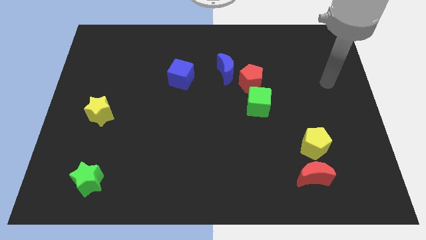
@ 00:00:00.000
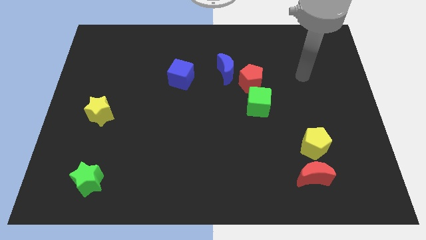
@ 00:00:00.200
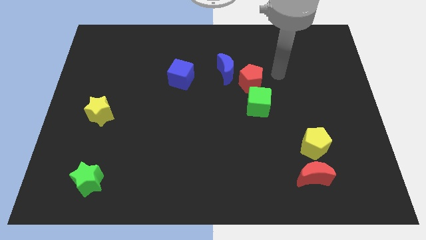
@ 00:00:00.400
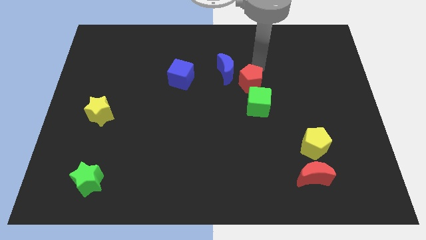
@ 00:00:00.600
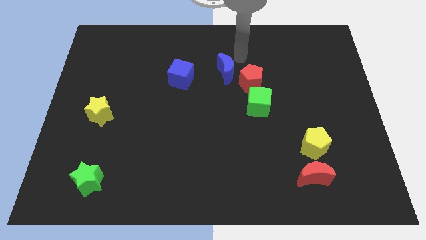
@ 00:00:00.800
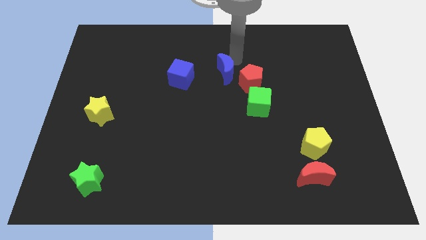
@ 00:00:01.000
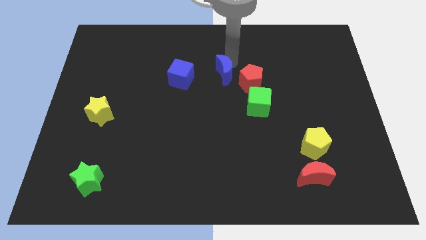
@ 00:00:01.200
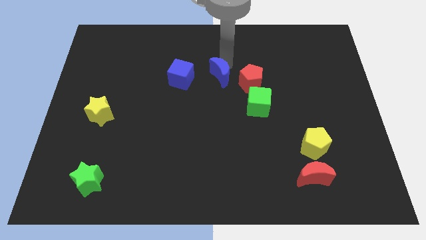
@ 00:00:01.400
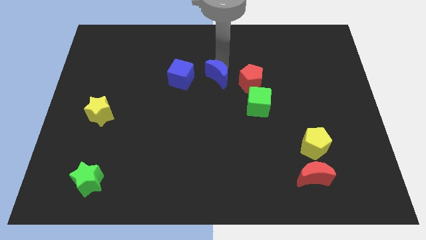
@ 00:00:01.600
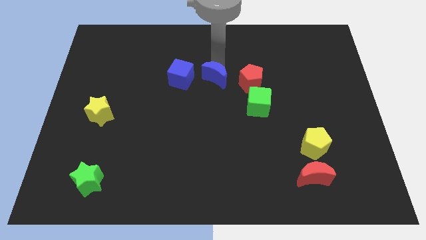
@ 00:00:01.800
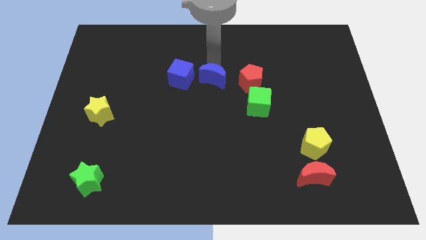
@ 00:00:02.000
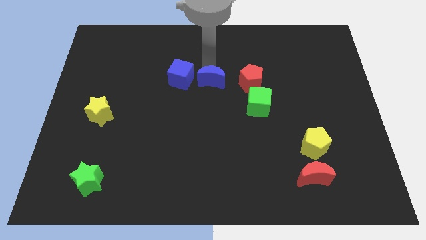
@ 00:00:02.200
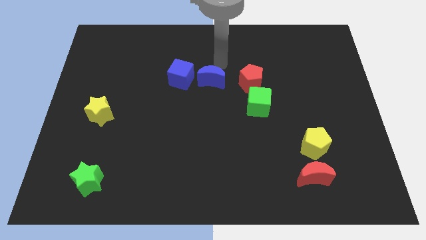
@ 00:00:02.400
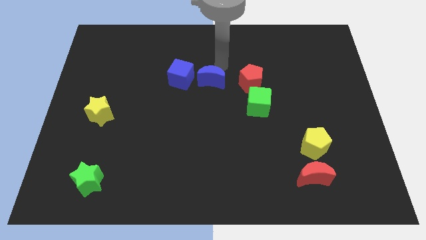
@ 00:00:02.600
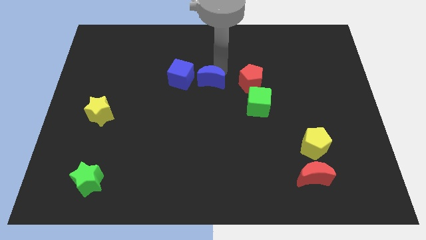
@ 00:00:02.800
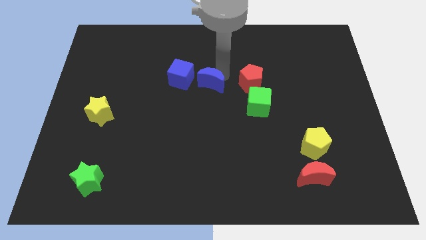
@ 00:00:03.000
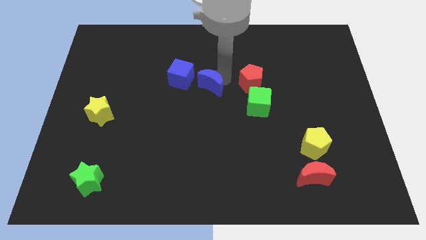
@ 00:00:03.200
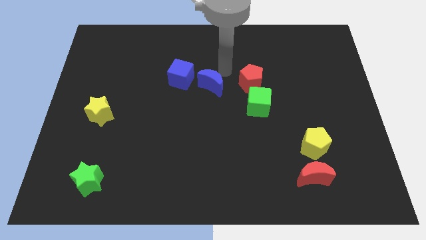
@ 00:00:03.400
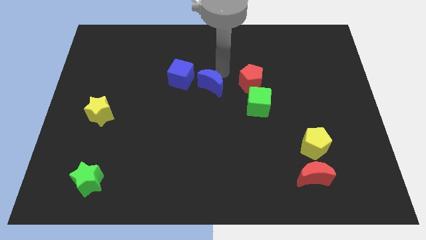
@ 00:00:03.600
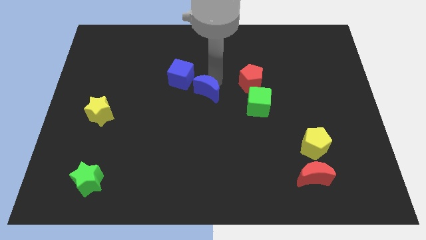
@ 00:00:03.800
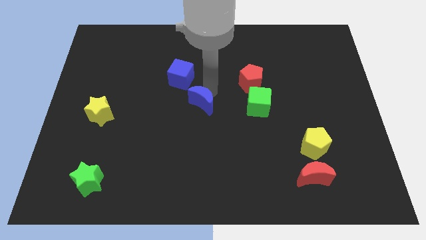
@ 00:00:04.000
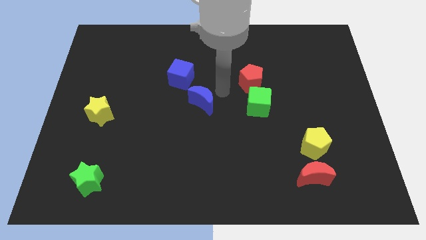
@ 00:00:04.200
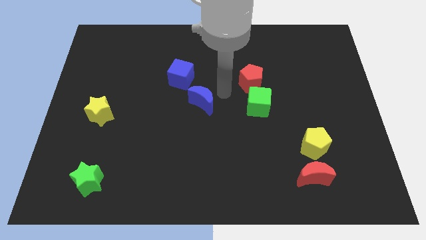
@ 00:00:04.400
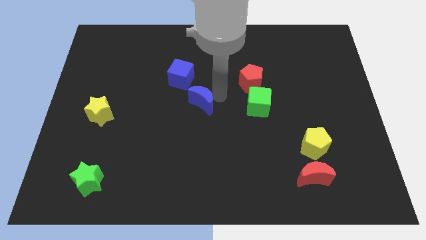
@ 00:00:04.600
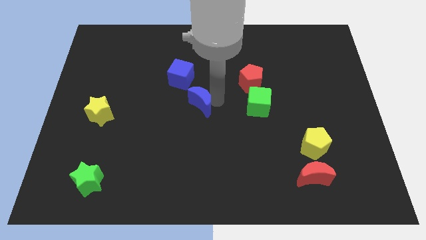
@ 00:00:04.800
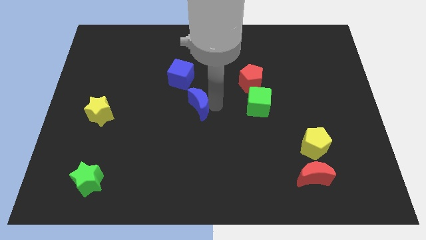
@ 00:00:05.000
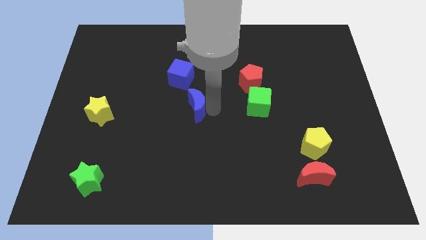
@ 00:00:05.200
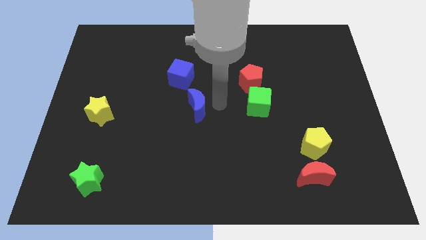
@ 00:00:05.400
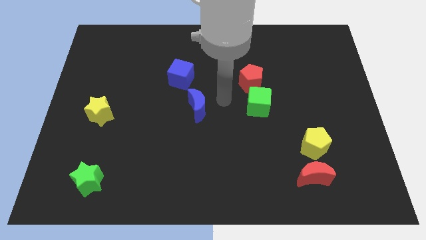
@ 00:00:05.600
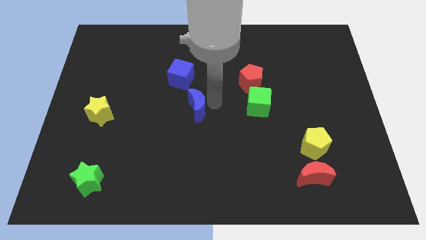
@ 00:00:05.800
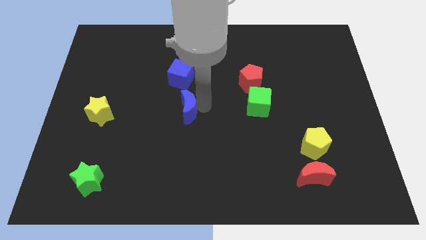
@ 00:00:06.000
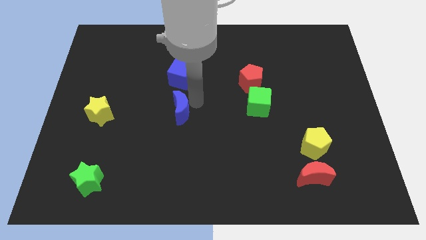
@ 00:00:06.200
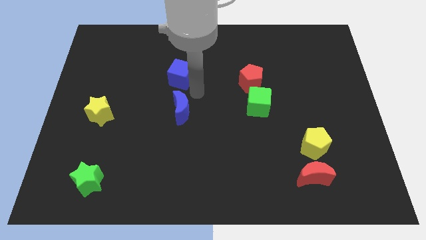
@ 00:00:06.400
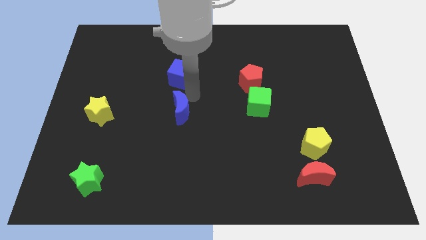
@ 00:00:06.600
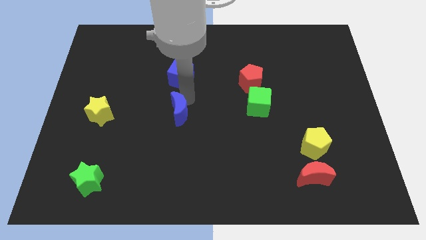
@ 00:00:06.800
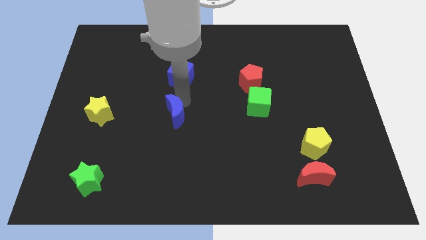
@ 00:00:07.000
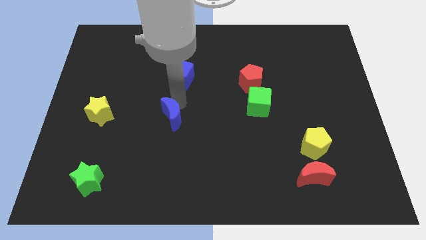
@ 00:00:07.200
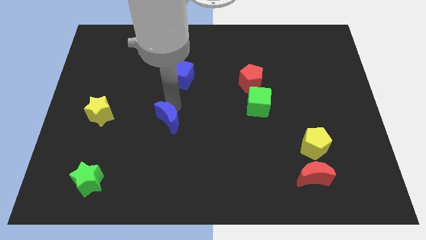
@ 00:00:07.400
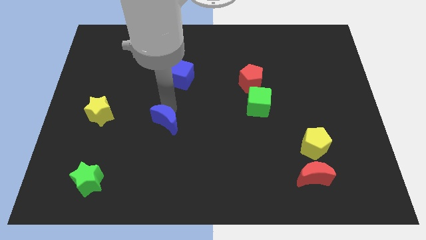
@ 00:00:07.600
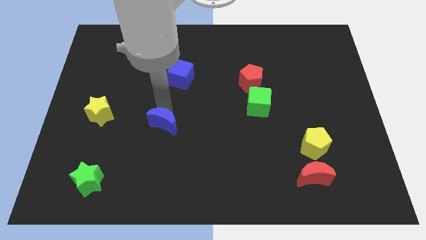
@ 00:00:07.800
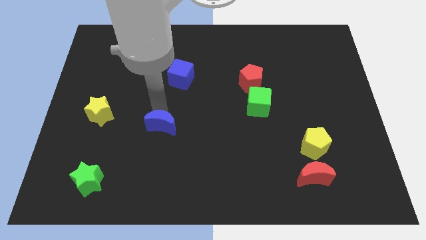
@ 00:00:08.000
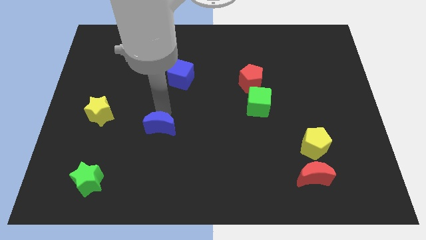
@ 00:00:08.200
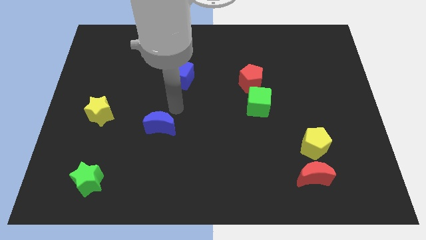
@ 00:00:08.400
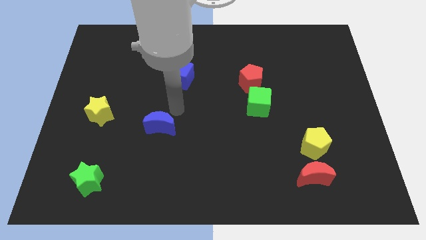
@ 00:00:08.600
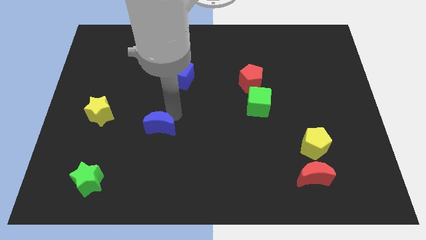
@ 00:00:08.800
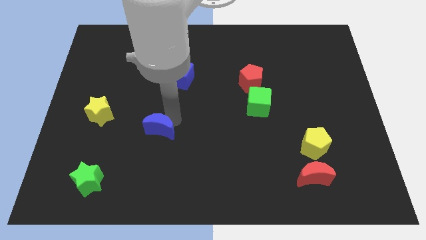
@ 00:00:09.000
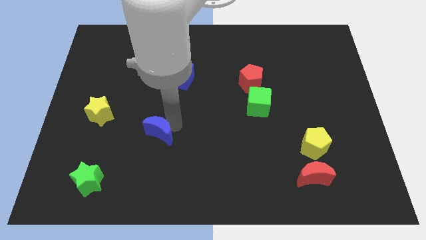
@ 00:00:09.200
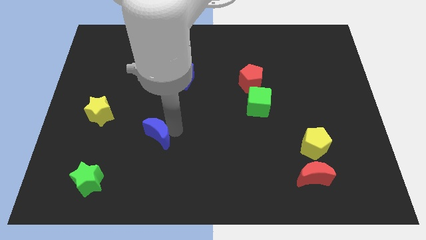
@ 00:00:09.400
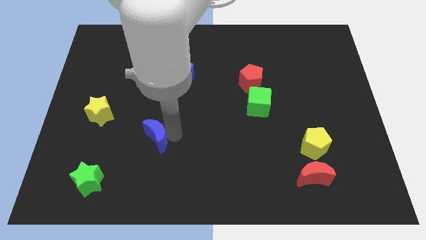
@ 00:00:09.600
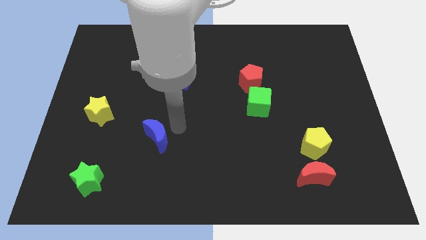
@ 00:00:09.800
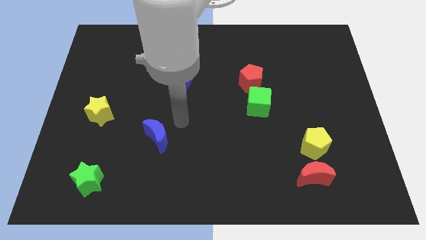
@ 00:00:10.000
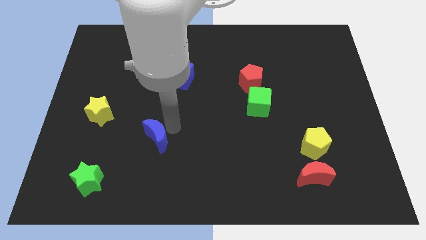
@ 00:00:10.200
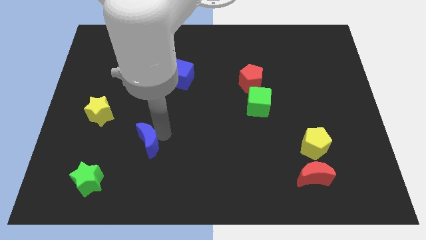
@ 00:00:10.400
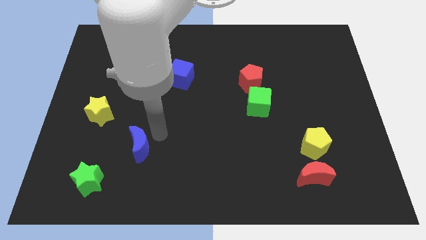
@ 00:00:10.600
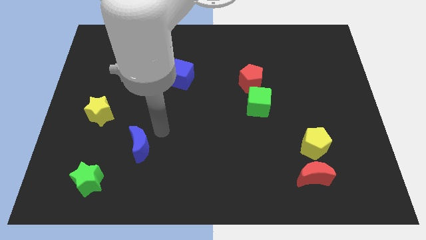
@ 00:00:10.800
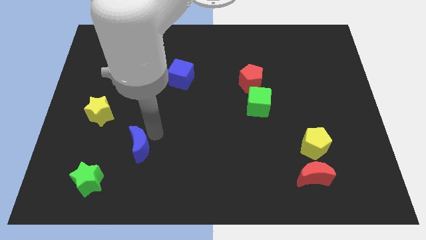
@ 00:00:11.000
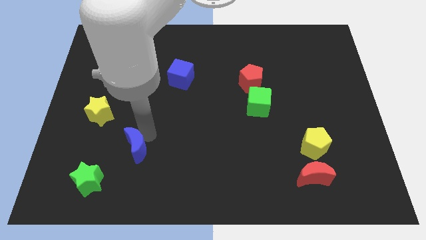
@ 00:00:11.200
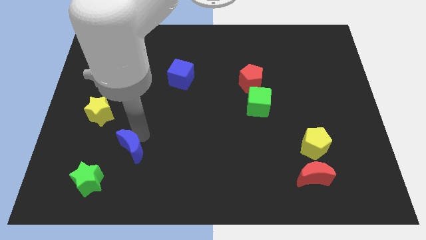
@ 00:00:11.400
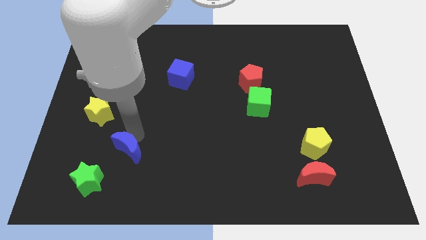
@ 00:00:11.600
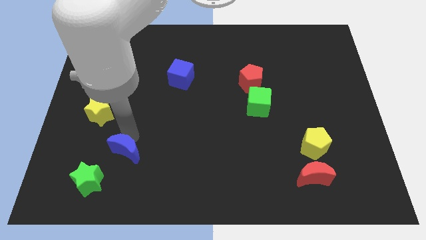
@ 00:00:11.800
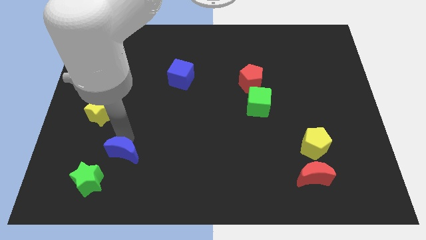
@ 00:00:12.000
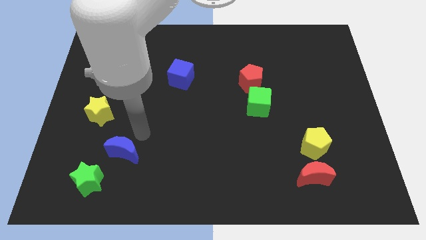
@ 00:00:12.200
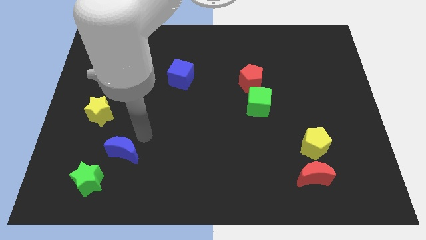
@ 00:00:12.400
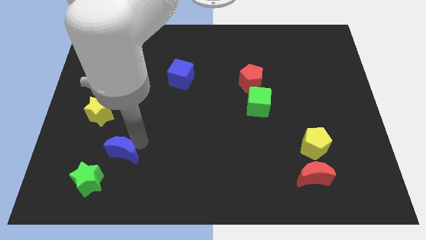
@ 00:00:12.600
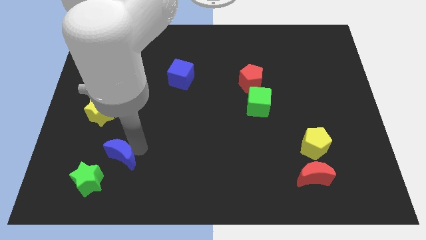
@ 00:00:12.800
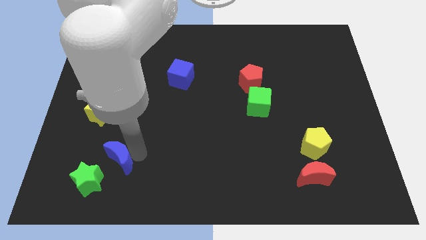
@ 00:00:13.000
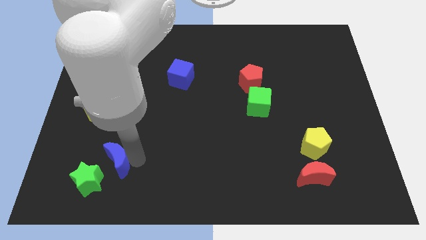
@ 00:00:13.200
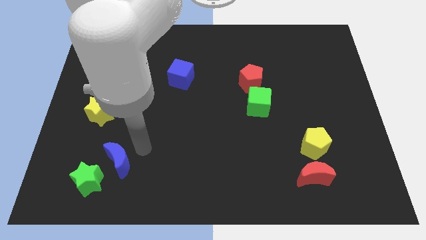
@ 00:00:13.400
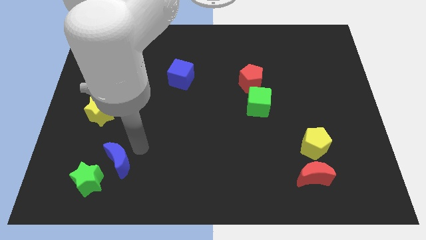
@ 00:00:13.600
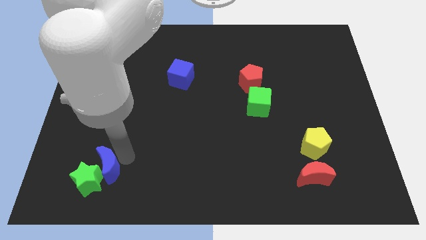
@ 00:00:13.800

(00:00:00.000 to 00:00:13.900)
slide the blue moon next to the green star
